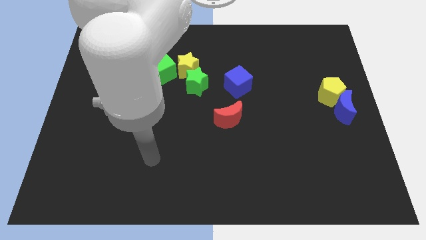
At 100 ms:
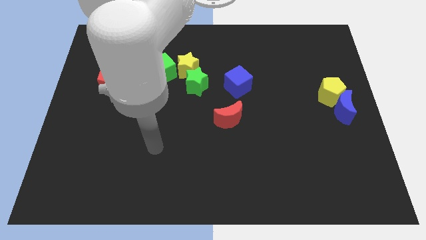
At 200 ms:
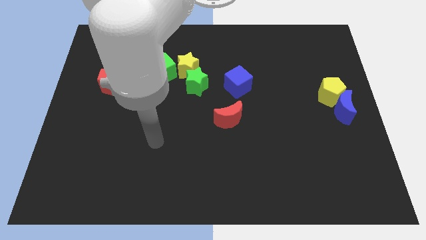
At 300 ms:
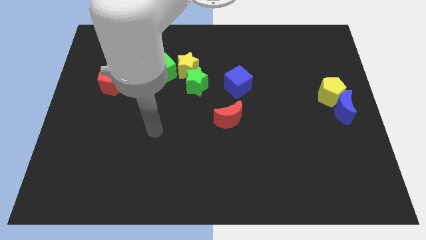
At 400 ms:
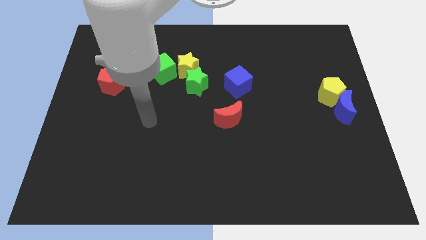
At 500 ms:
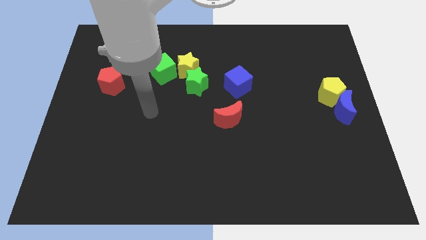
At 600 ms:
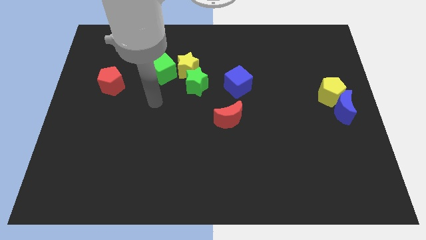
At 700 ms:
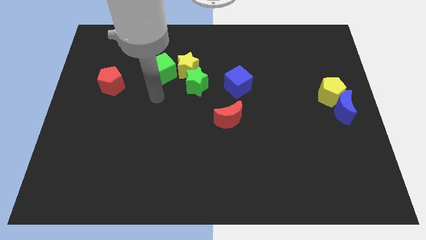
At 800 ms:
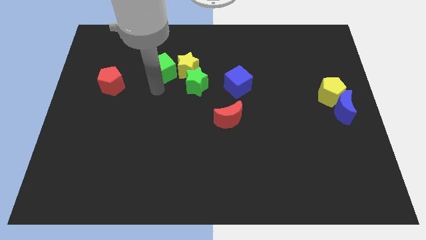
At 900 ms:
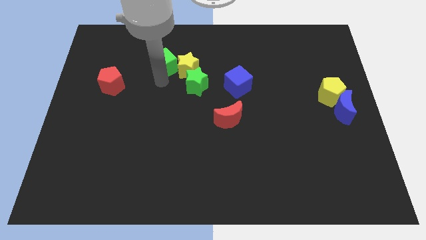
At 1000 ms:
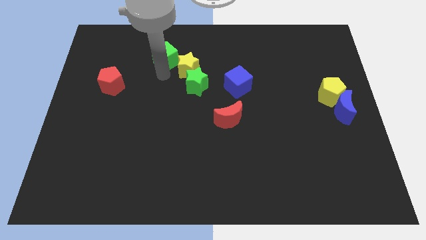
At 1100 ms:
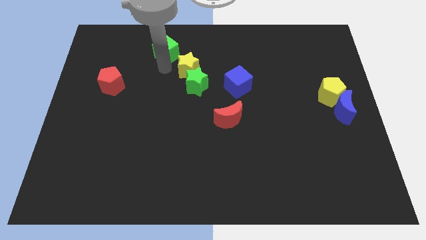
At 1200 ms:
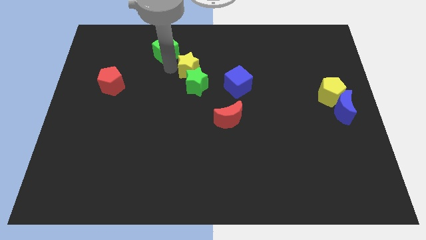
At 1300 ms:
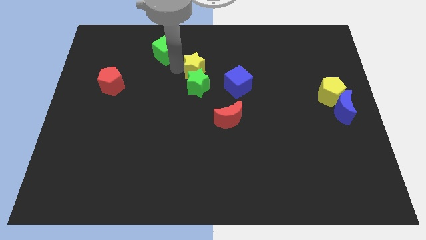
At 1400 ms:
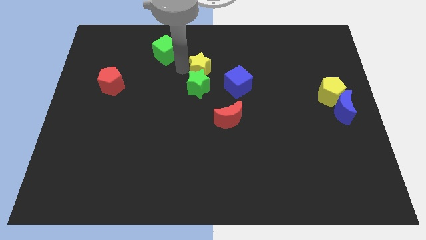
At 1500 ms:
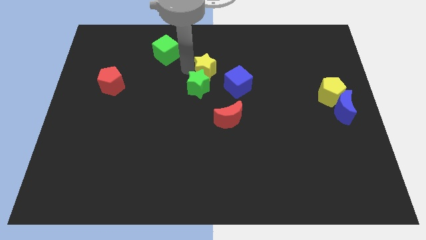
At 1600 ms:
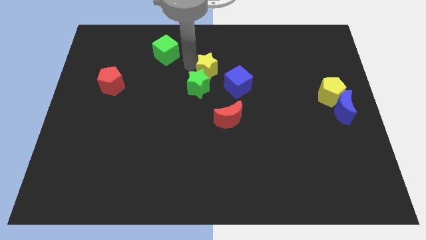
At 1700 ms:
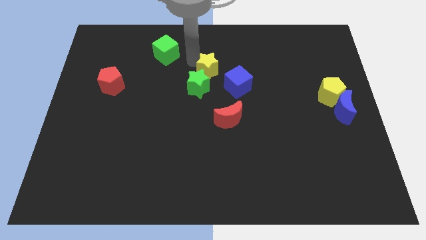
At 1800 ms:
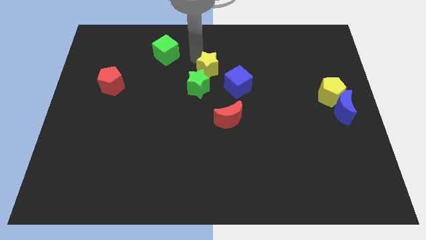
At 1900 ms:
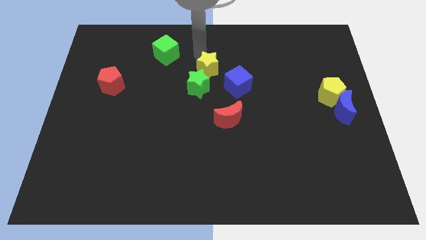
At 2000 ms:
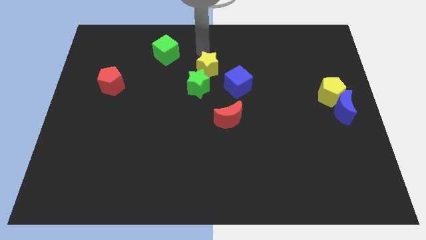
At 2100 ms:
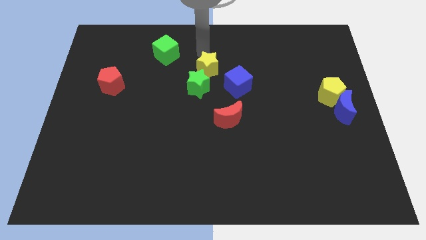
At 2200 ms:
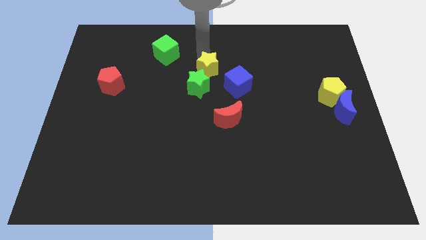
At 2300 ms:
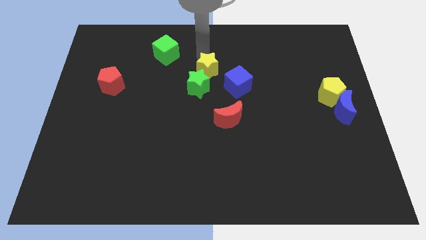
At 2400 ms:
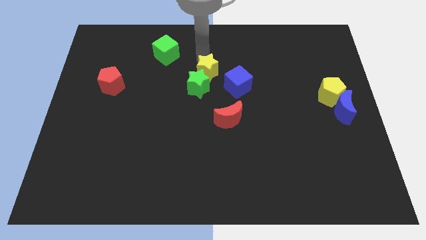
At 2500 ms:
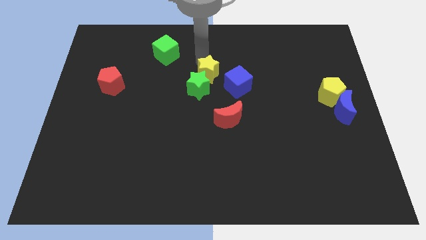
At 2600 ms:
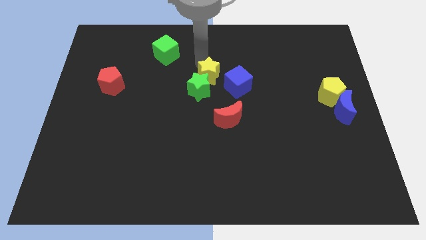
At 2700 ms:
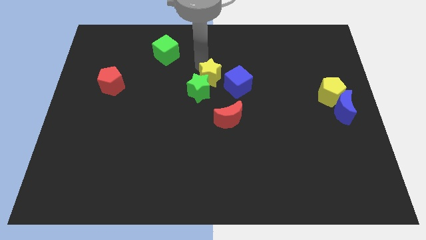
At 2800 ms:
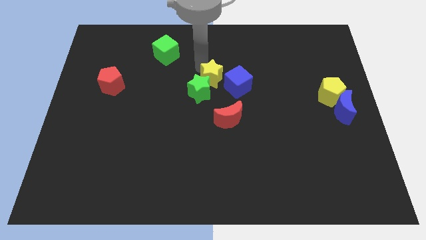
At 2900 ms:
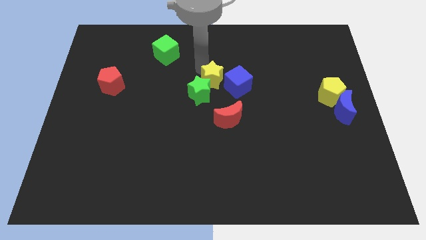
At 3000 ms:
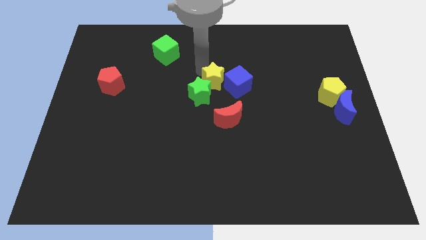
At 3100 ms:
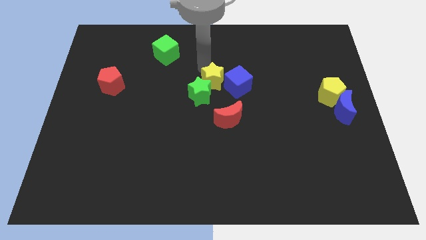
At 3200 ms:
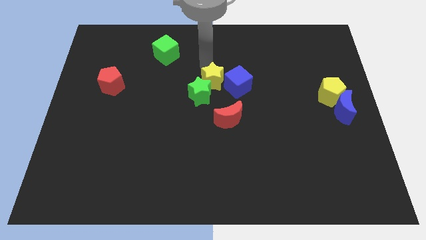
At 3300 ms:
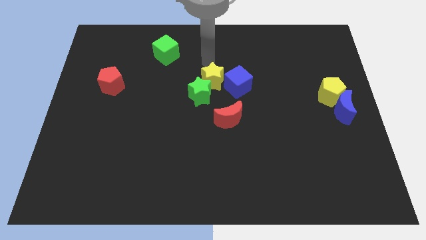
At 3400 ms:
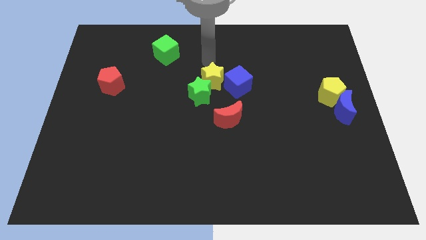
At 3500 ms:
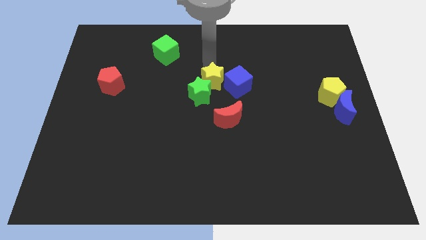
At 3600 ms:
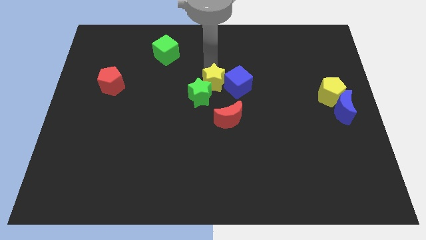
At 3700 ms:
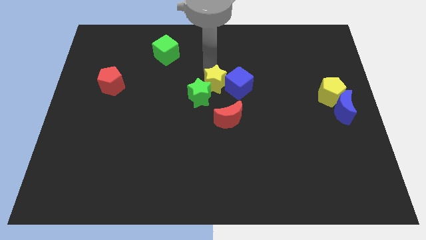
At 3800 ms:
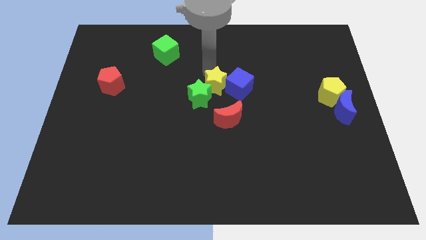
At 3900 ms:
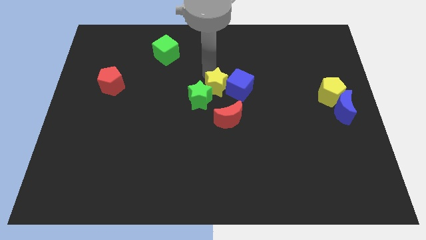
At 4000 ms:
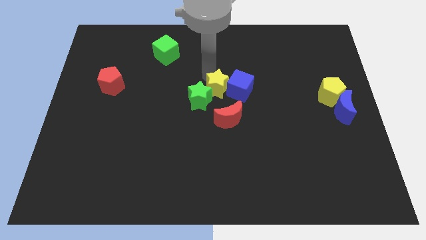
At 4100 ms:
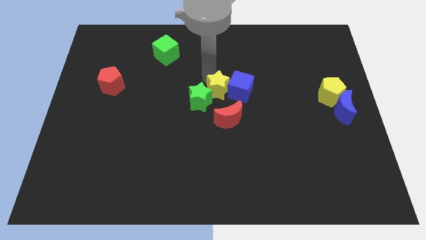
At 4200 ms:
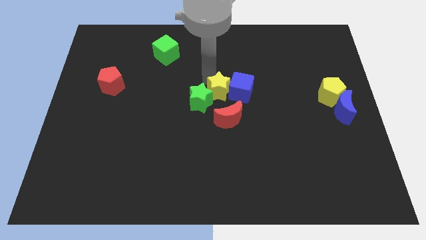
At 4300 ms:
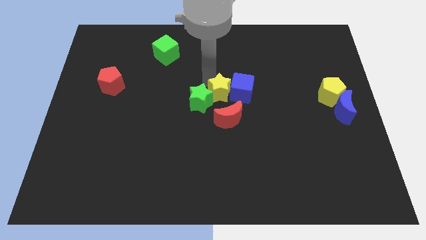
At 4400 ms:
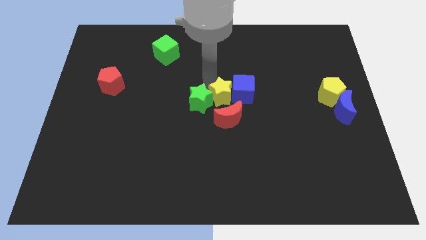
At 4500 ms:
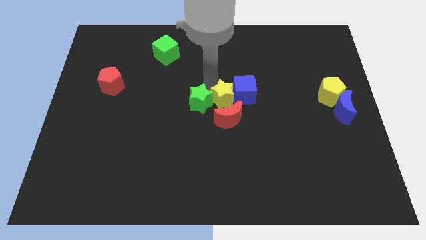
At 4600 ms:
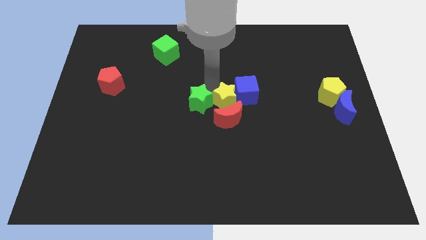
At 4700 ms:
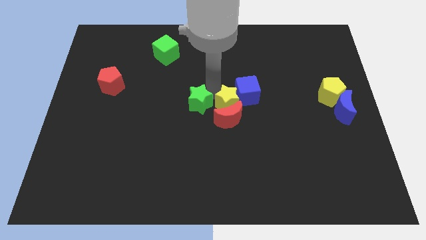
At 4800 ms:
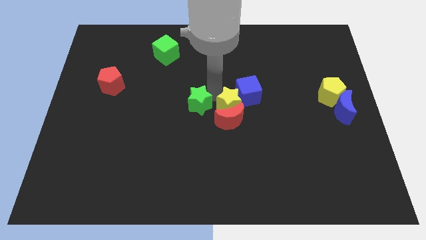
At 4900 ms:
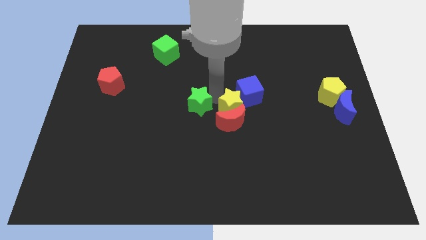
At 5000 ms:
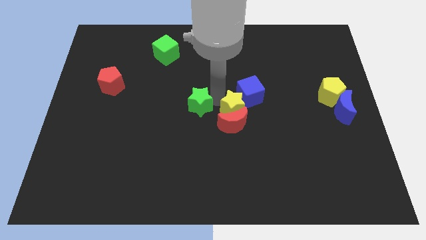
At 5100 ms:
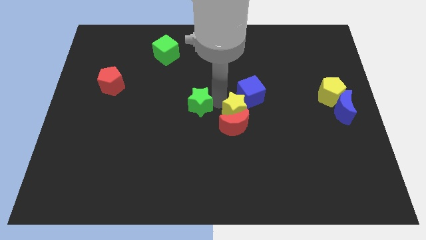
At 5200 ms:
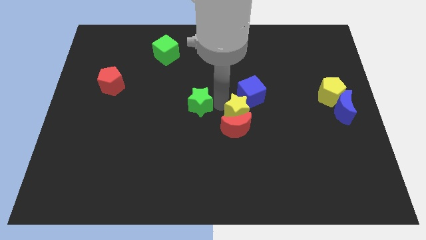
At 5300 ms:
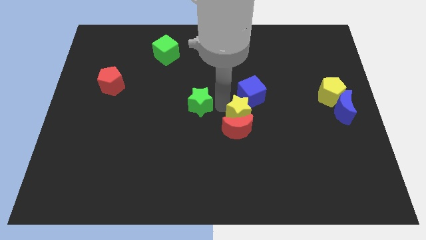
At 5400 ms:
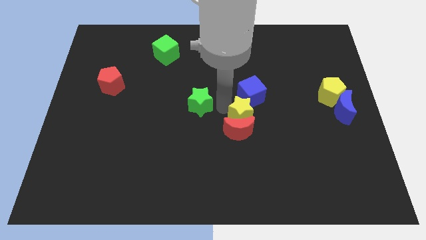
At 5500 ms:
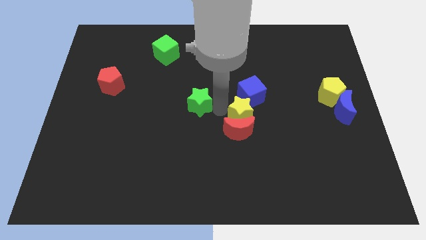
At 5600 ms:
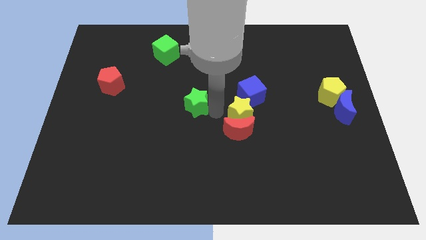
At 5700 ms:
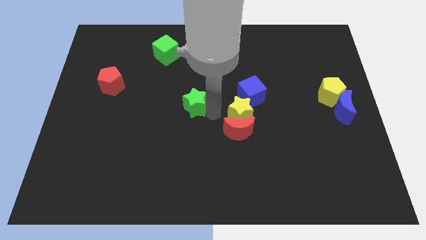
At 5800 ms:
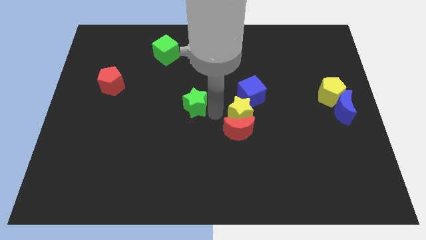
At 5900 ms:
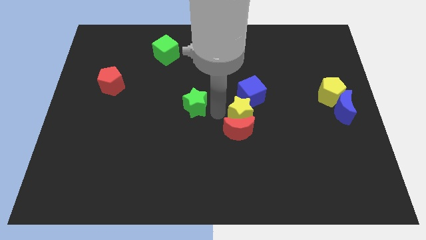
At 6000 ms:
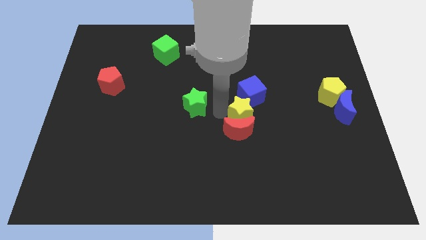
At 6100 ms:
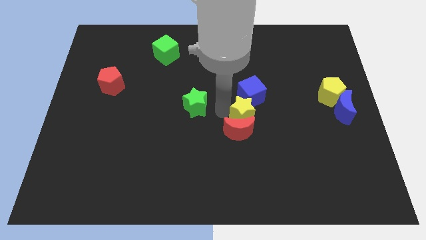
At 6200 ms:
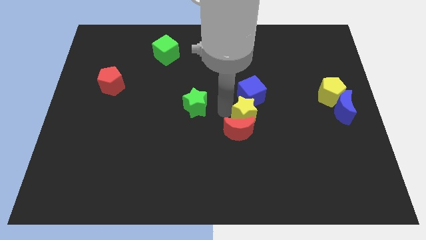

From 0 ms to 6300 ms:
move the yellow star downwards and then to the right

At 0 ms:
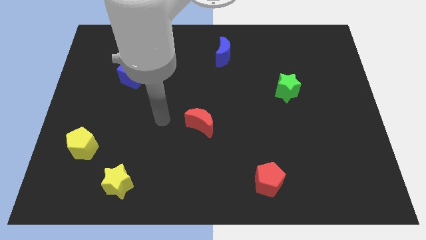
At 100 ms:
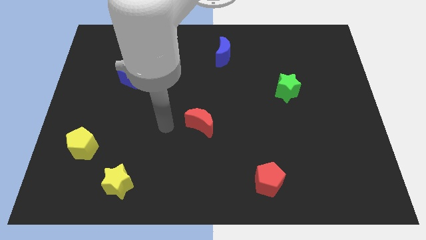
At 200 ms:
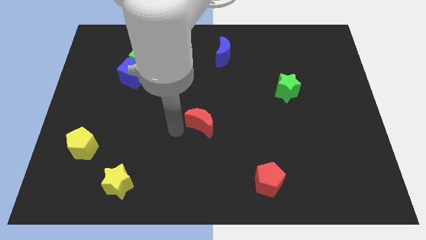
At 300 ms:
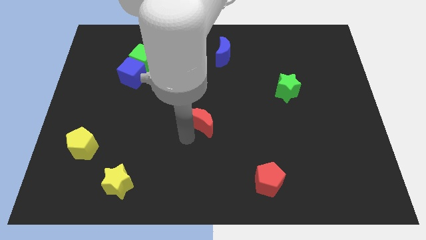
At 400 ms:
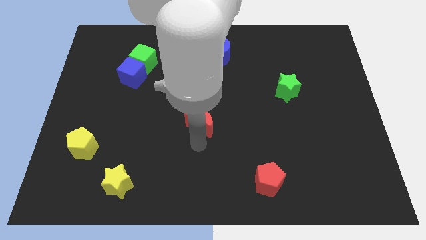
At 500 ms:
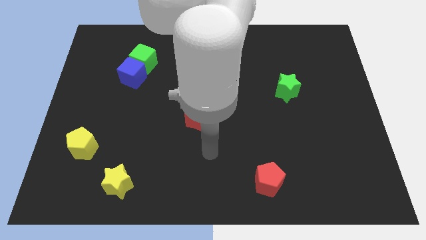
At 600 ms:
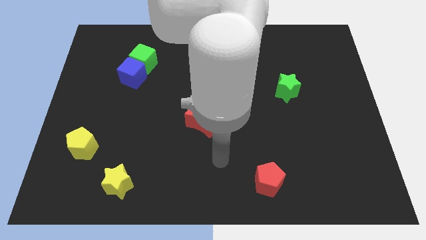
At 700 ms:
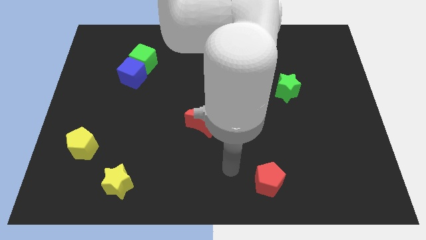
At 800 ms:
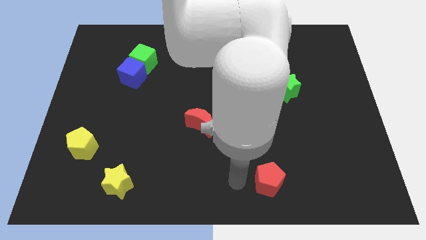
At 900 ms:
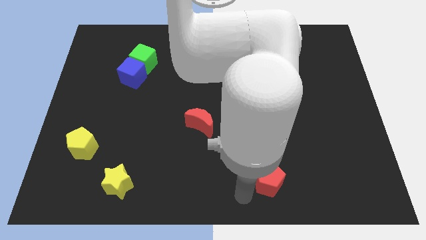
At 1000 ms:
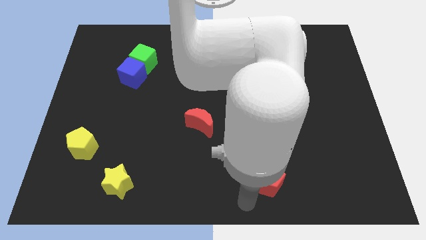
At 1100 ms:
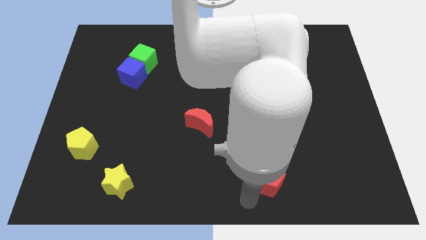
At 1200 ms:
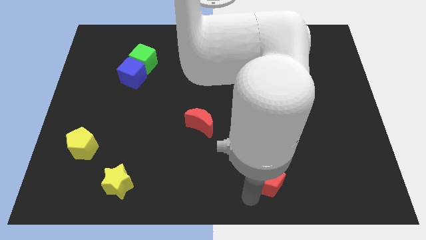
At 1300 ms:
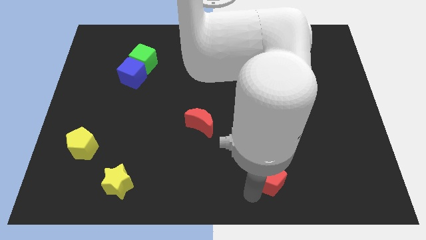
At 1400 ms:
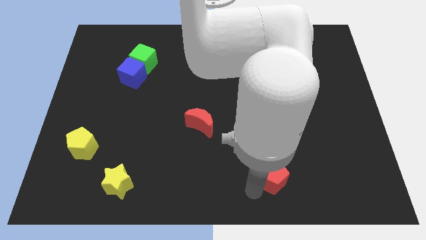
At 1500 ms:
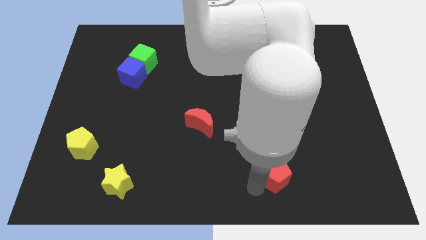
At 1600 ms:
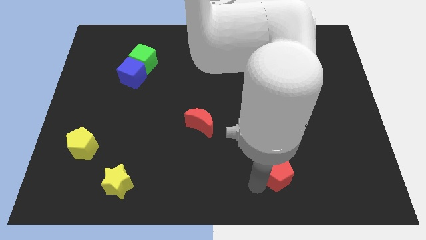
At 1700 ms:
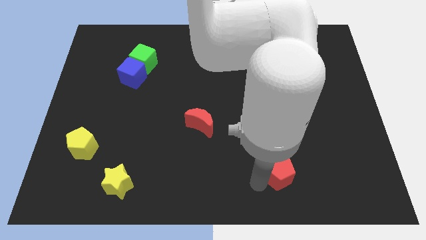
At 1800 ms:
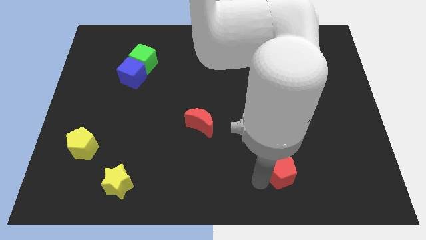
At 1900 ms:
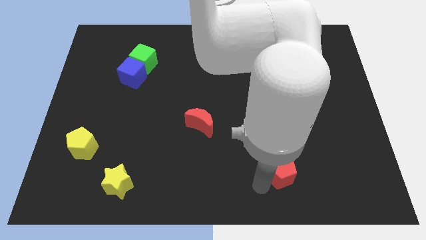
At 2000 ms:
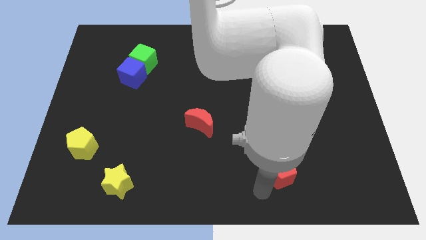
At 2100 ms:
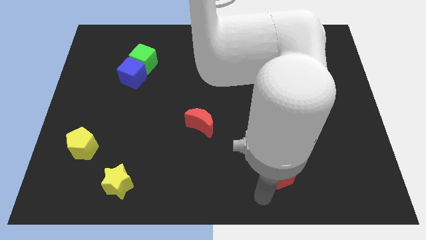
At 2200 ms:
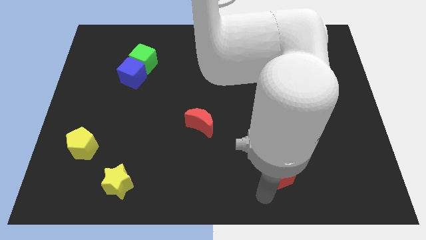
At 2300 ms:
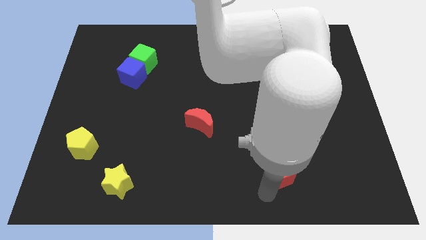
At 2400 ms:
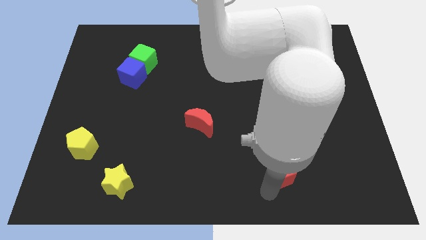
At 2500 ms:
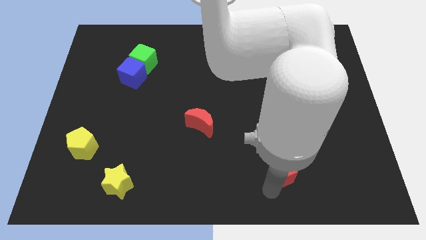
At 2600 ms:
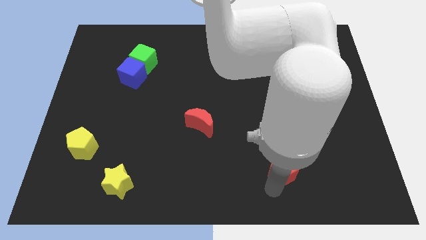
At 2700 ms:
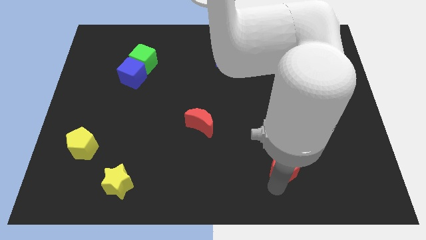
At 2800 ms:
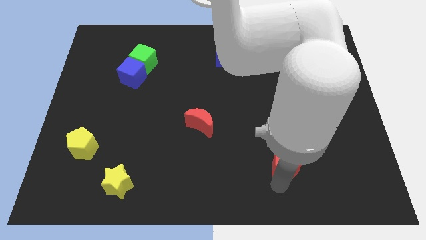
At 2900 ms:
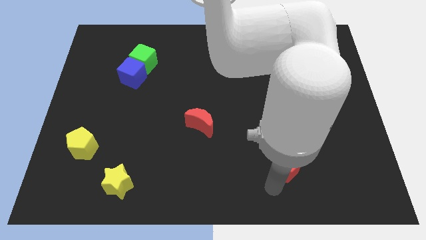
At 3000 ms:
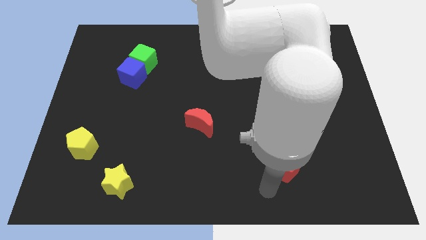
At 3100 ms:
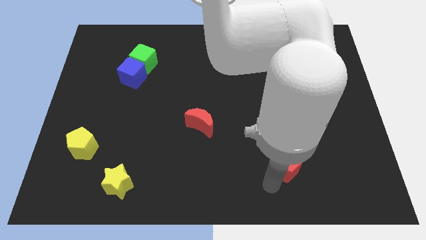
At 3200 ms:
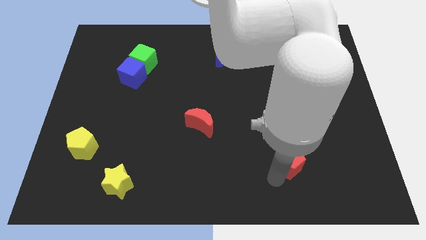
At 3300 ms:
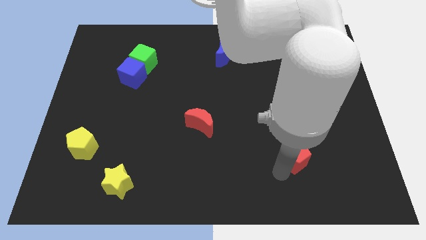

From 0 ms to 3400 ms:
slightly slide the red pentagon upwards and to the right diagonally
